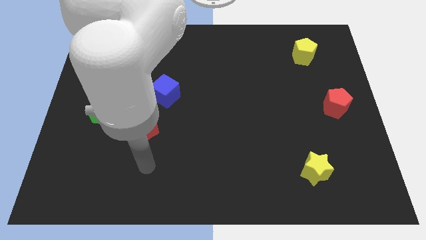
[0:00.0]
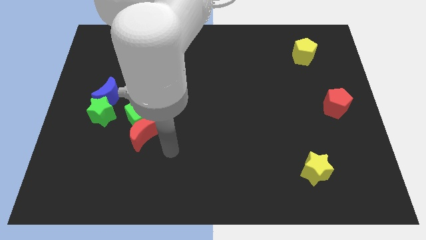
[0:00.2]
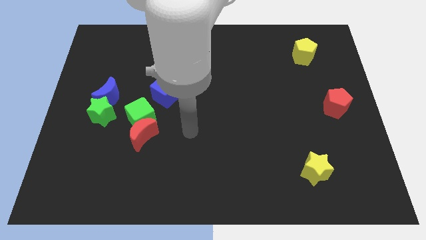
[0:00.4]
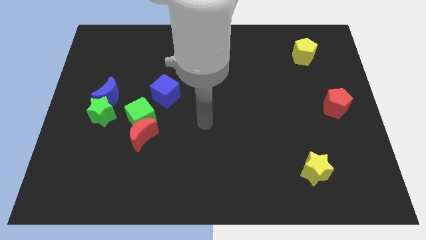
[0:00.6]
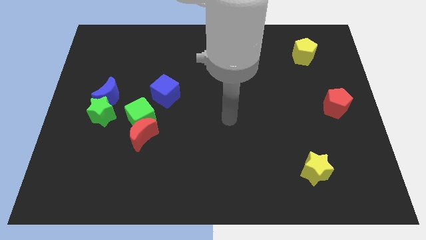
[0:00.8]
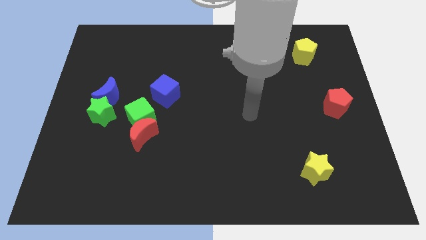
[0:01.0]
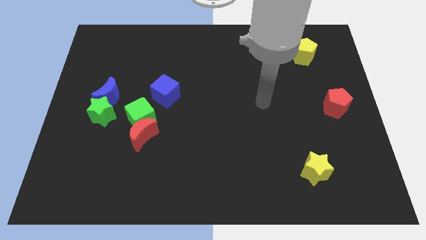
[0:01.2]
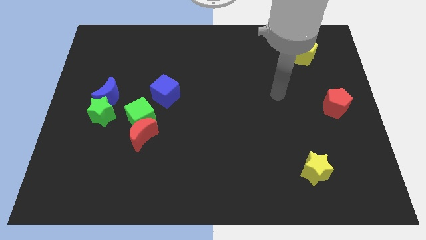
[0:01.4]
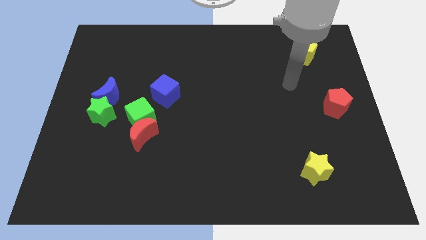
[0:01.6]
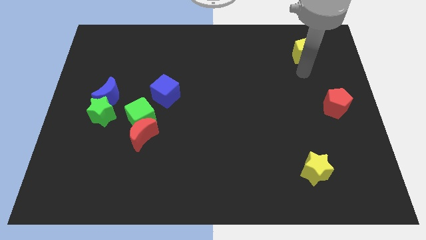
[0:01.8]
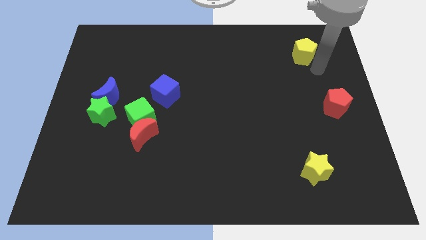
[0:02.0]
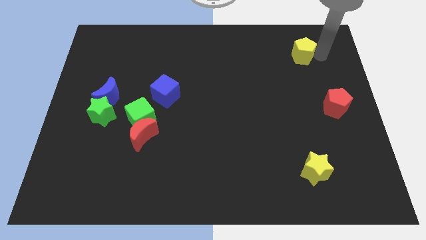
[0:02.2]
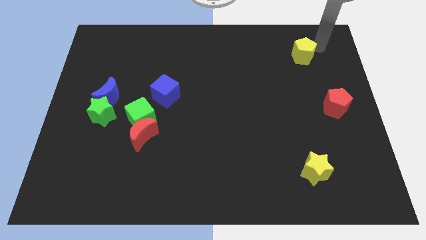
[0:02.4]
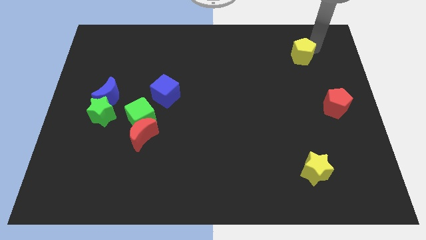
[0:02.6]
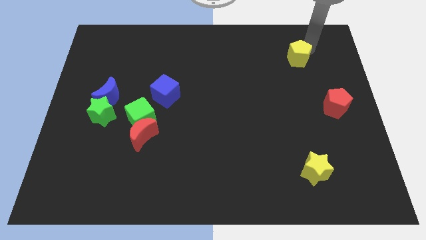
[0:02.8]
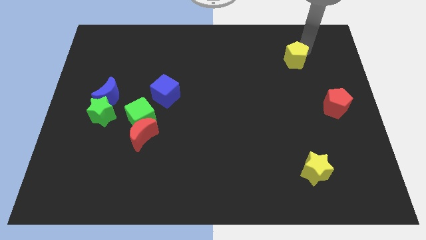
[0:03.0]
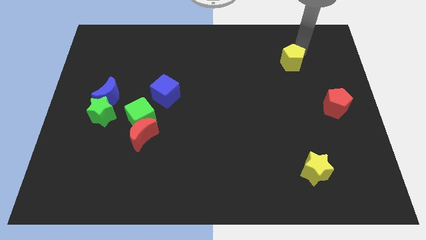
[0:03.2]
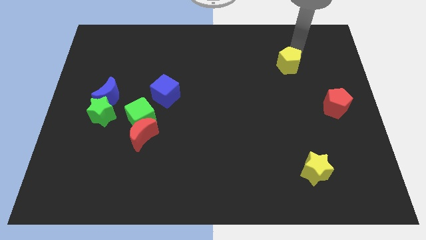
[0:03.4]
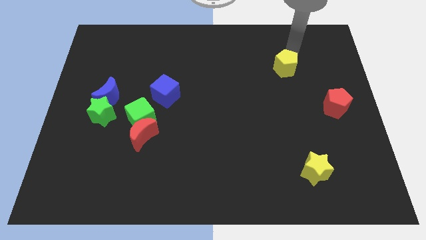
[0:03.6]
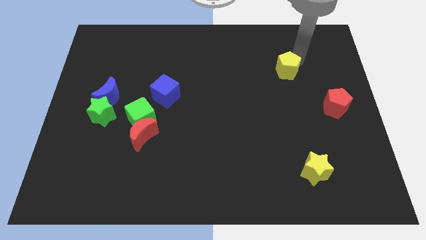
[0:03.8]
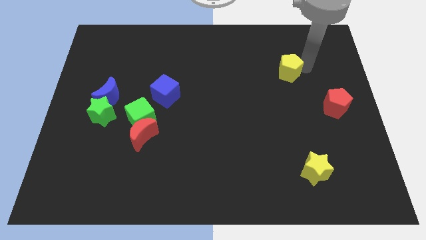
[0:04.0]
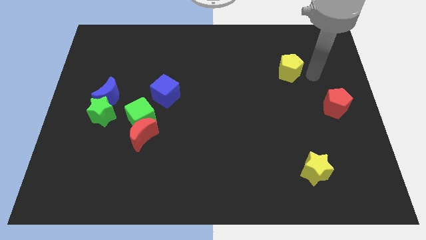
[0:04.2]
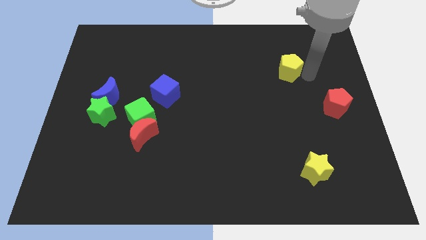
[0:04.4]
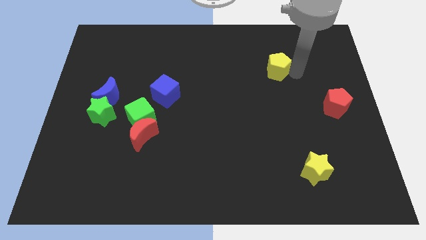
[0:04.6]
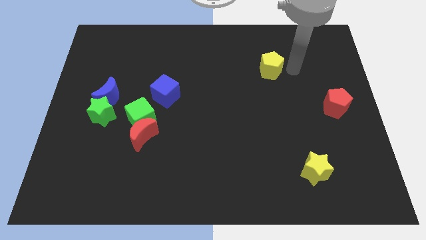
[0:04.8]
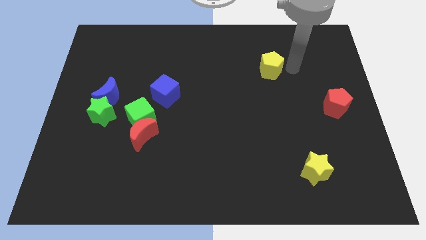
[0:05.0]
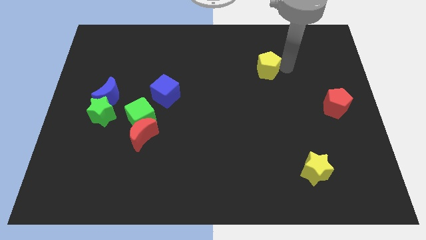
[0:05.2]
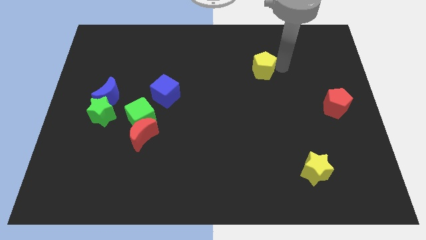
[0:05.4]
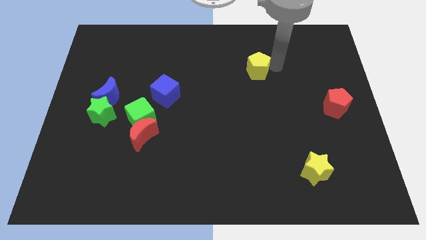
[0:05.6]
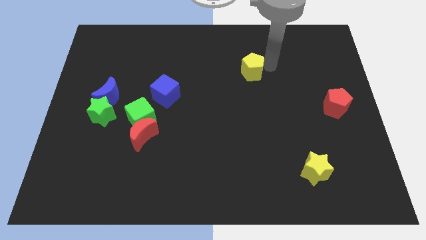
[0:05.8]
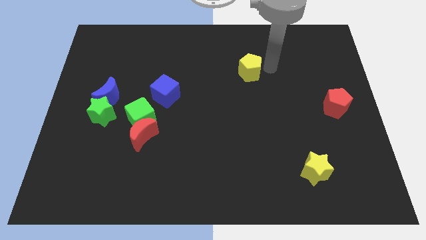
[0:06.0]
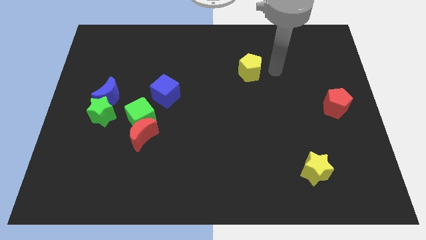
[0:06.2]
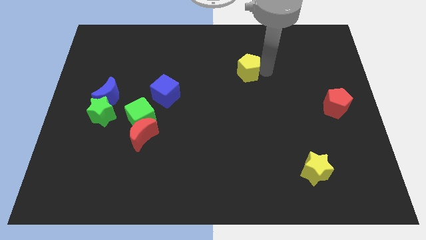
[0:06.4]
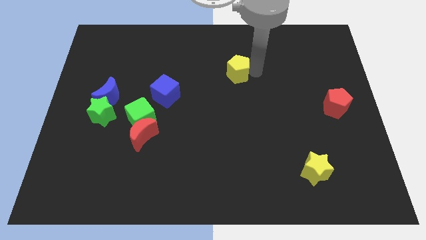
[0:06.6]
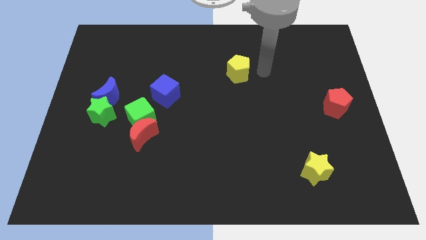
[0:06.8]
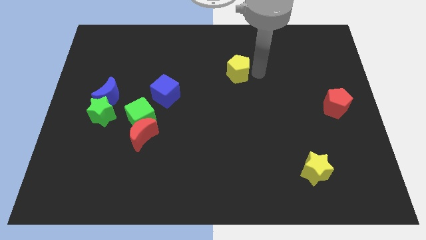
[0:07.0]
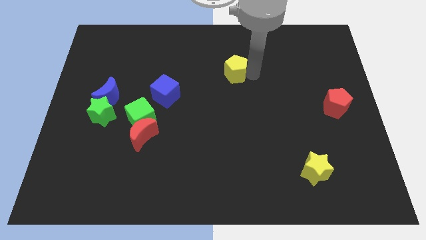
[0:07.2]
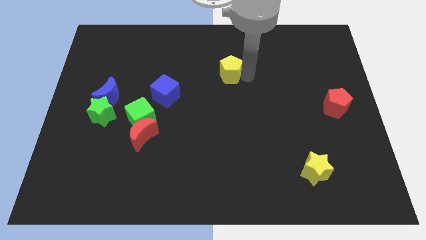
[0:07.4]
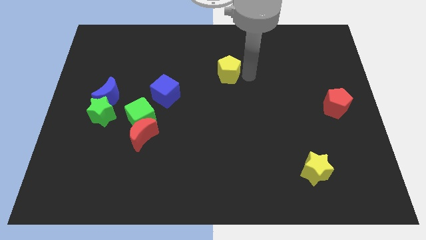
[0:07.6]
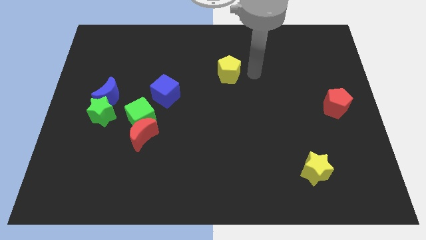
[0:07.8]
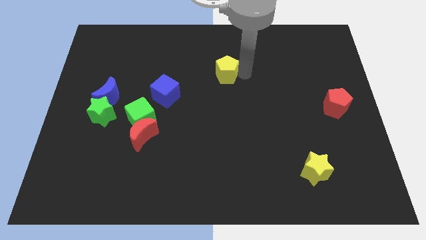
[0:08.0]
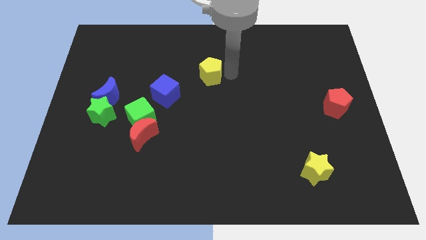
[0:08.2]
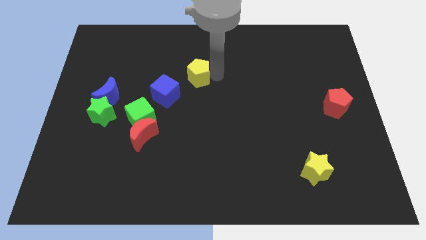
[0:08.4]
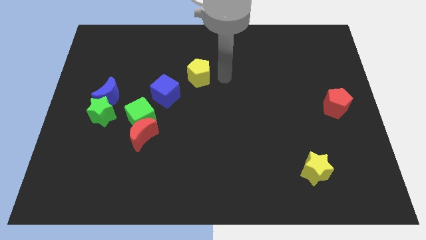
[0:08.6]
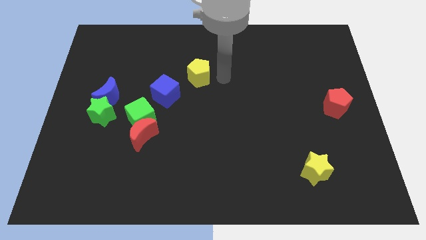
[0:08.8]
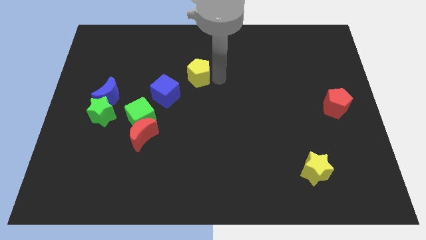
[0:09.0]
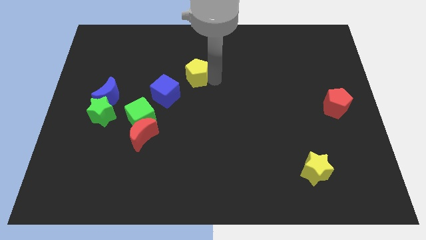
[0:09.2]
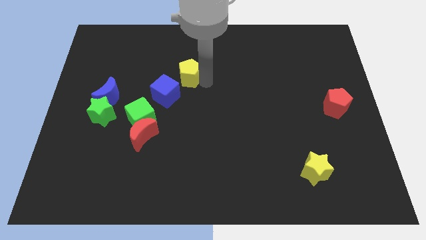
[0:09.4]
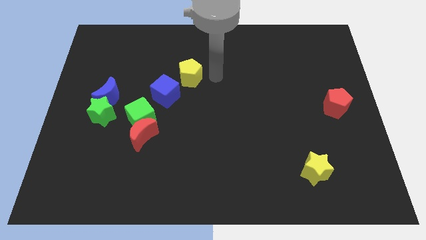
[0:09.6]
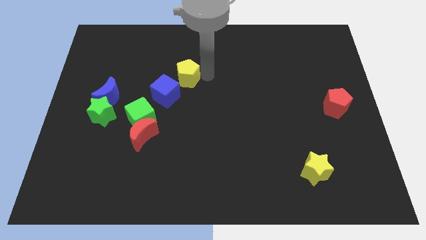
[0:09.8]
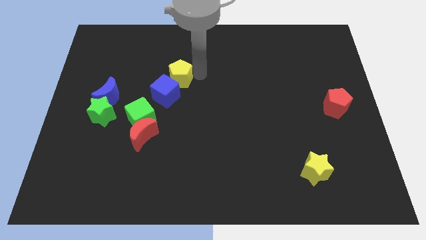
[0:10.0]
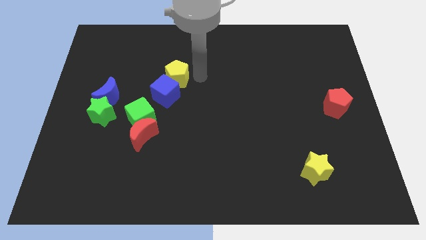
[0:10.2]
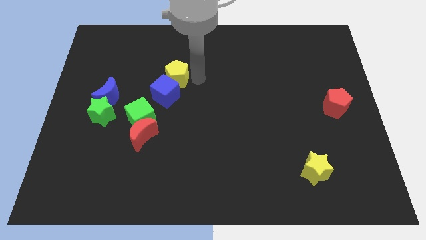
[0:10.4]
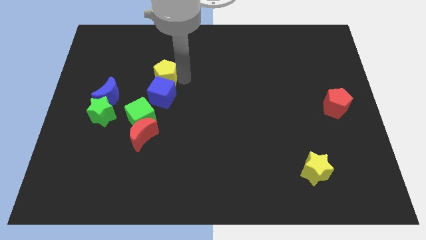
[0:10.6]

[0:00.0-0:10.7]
move the yellow pentagon to the top left of the blue cube

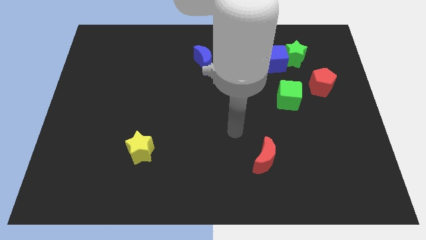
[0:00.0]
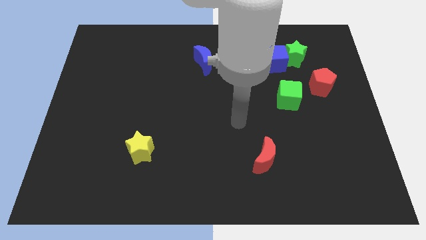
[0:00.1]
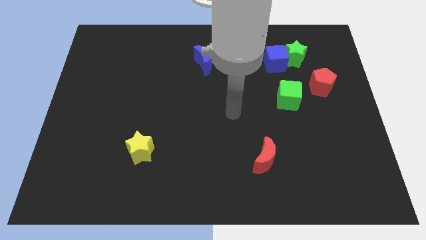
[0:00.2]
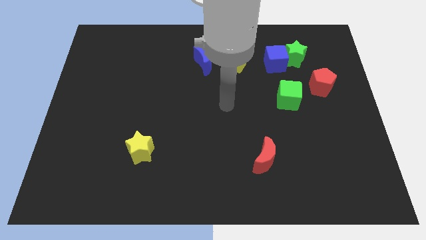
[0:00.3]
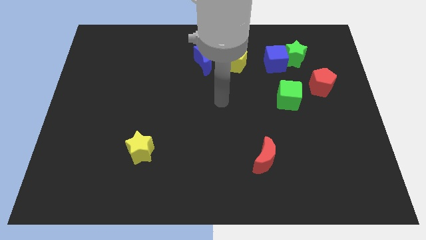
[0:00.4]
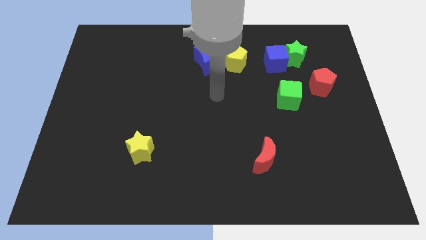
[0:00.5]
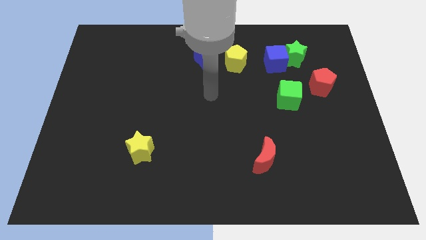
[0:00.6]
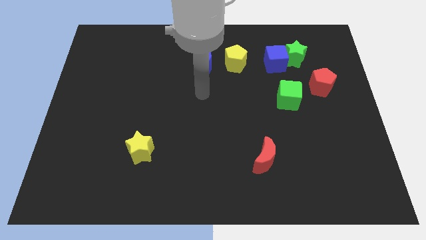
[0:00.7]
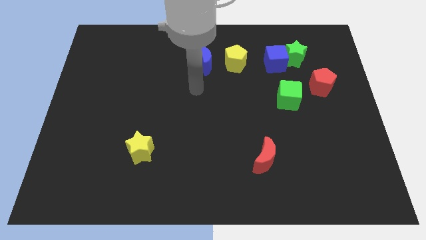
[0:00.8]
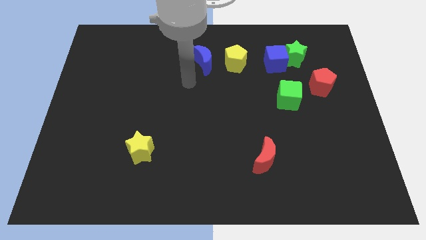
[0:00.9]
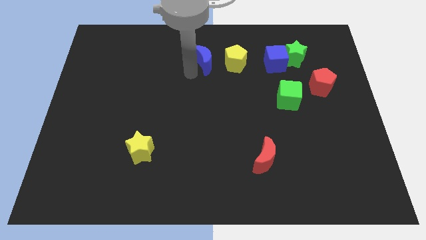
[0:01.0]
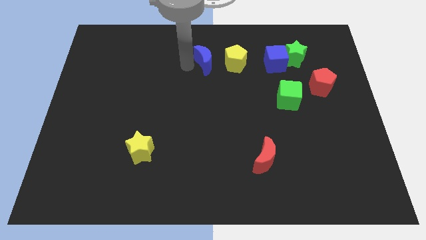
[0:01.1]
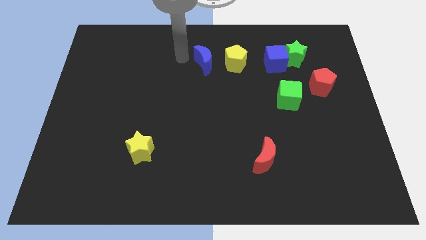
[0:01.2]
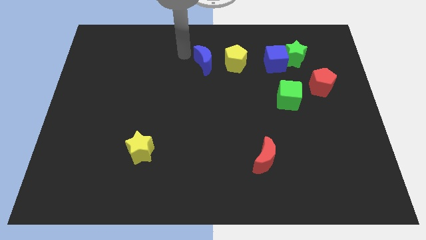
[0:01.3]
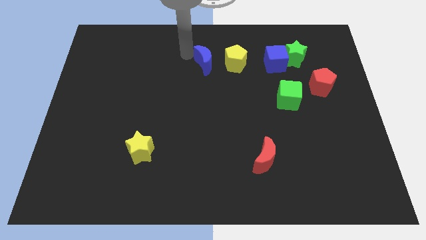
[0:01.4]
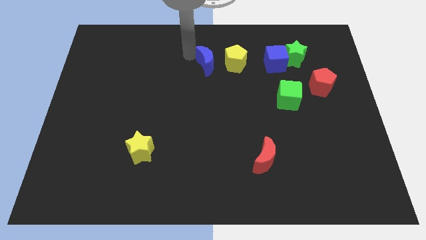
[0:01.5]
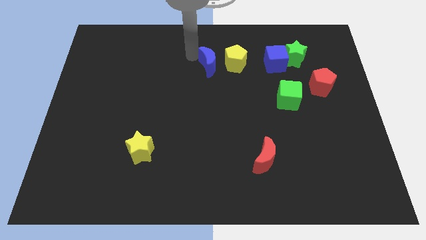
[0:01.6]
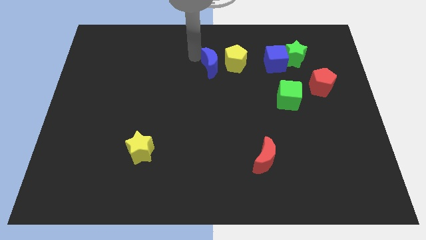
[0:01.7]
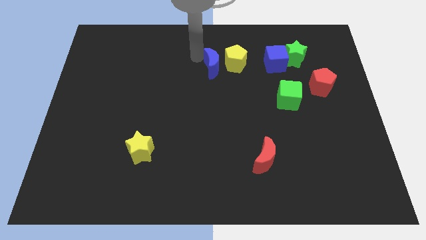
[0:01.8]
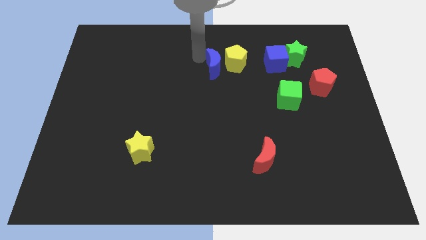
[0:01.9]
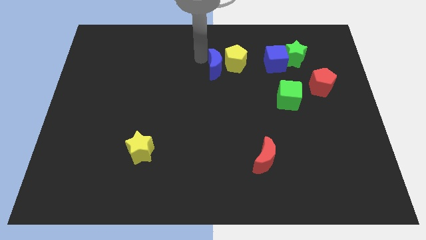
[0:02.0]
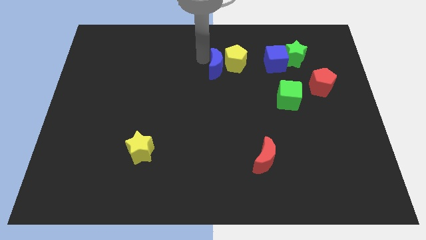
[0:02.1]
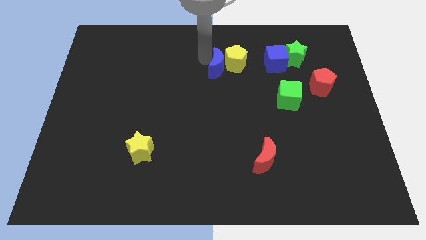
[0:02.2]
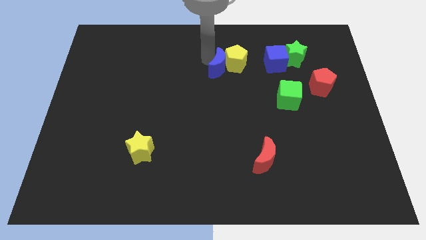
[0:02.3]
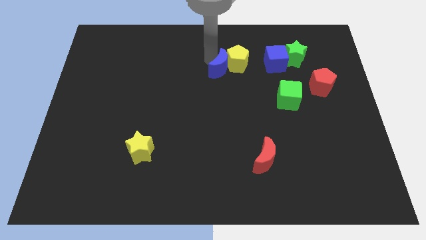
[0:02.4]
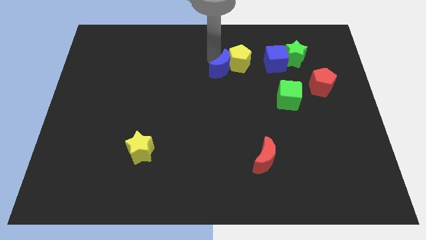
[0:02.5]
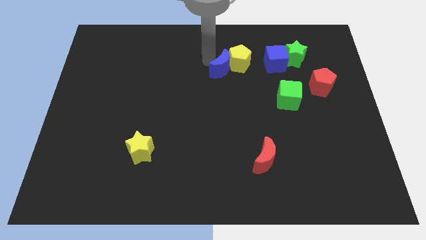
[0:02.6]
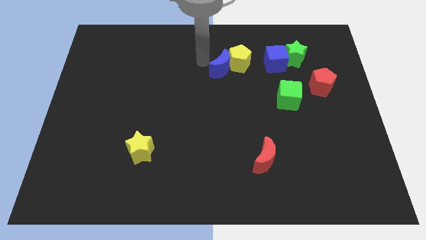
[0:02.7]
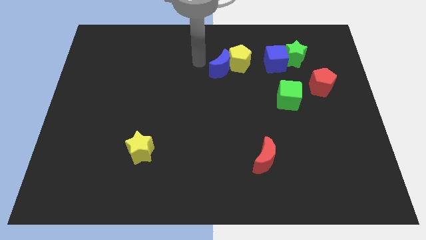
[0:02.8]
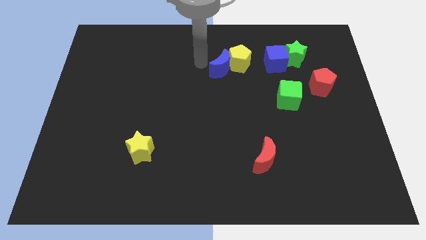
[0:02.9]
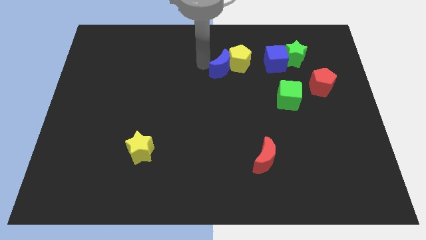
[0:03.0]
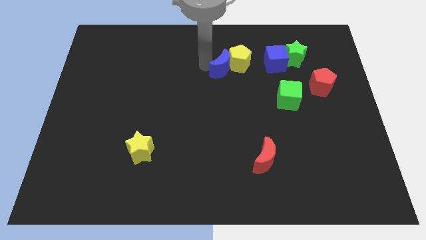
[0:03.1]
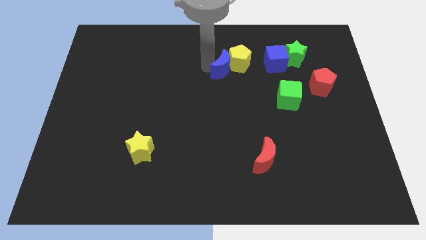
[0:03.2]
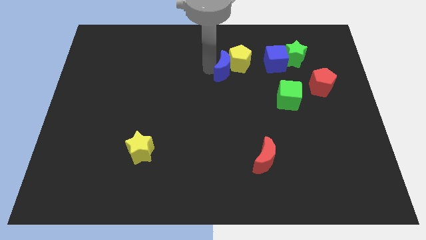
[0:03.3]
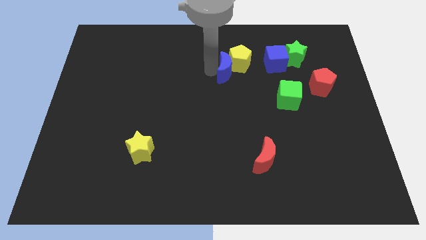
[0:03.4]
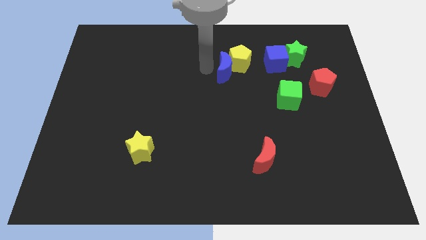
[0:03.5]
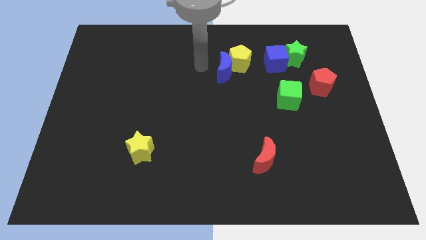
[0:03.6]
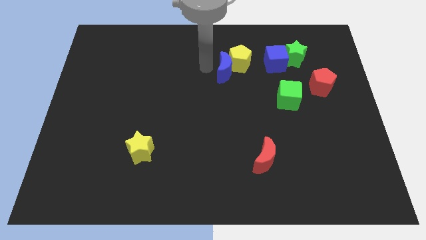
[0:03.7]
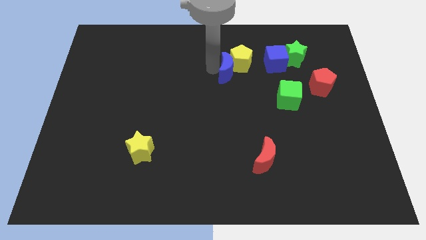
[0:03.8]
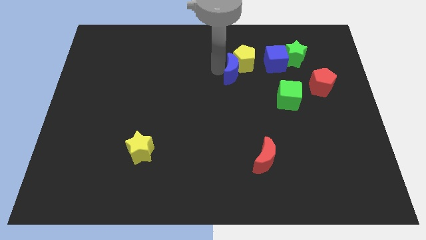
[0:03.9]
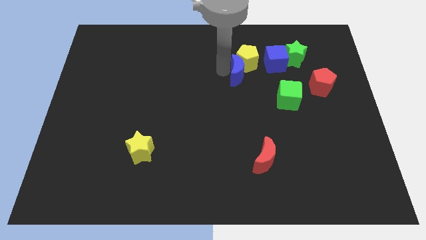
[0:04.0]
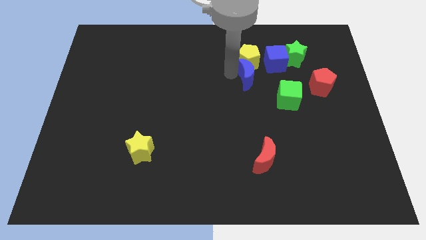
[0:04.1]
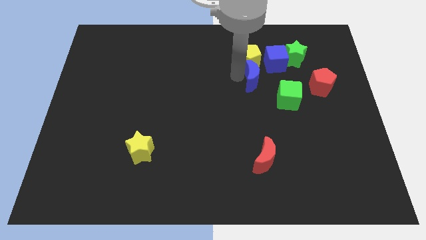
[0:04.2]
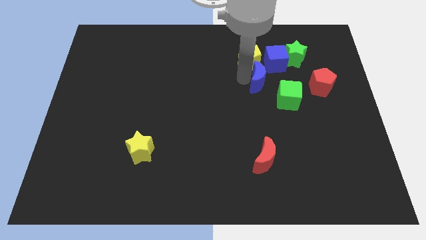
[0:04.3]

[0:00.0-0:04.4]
put the blue moon to the bottom left side of the green star
